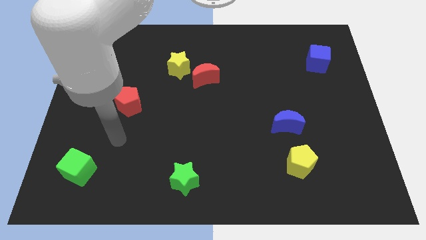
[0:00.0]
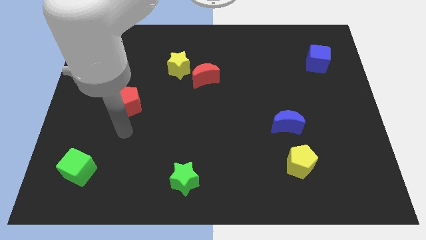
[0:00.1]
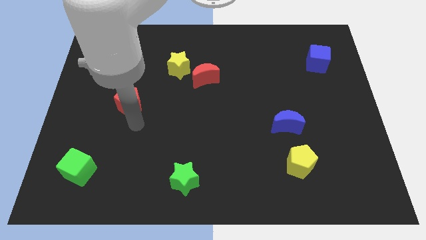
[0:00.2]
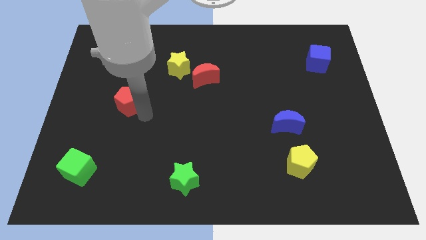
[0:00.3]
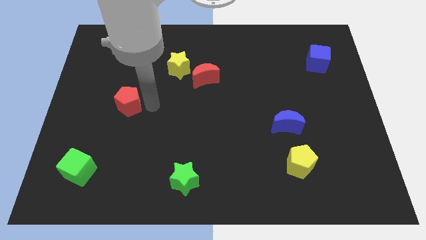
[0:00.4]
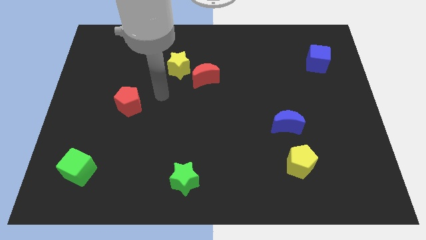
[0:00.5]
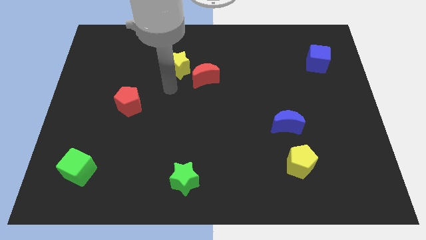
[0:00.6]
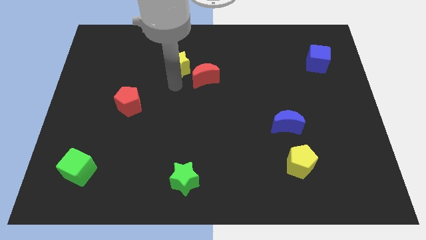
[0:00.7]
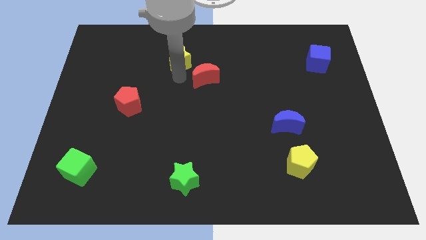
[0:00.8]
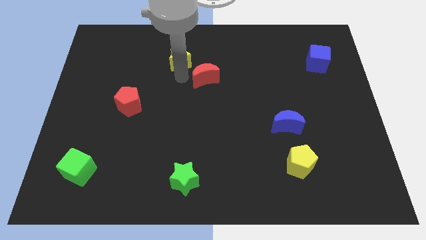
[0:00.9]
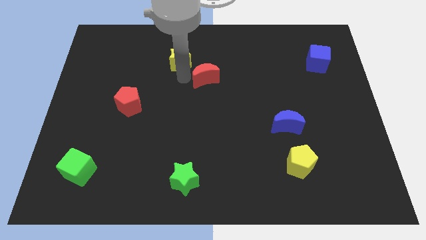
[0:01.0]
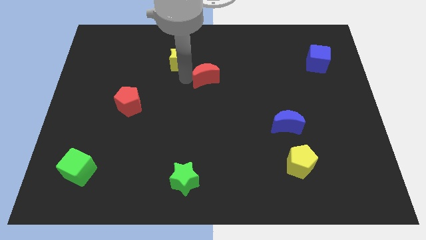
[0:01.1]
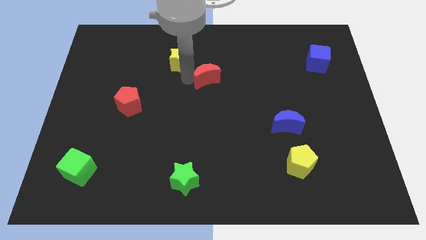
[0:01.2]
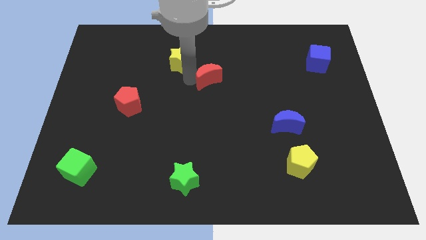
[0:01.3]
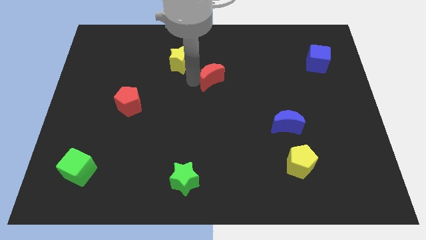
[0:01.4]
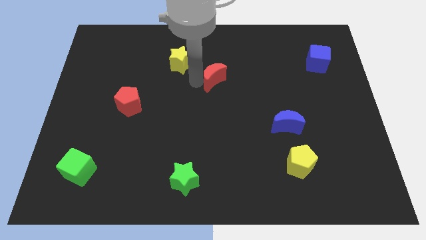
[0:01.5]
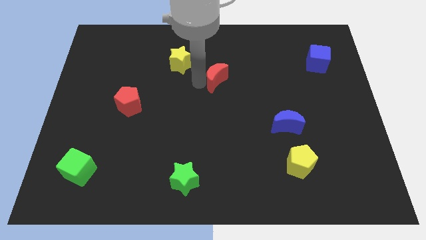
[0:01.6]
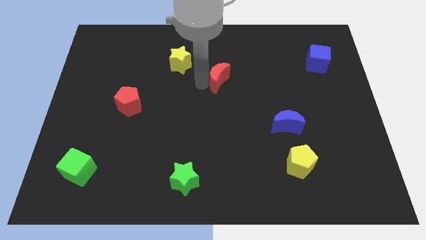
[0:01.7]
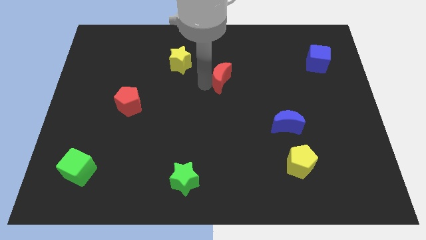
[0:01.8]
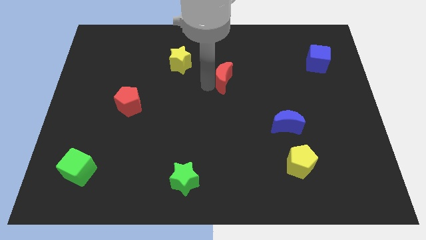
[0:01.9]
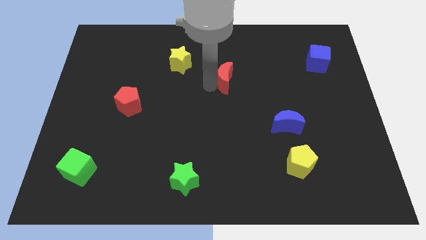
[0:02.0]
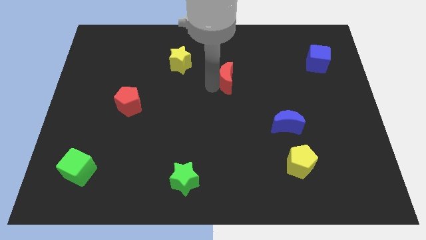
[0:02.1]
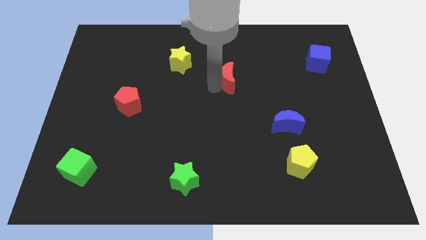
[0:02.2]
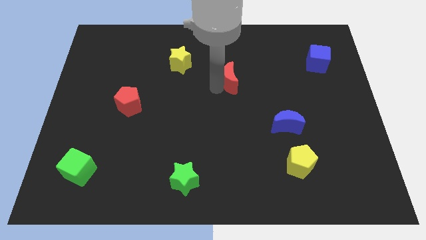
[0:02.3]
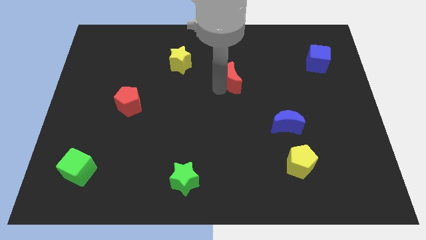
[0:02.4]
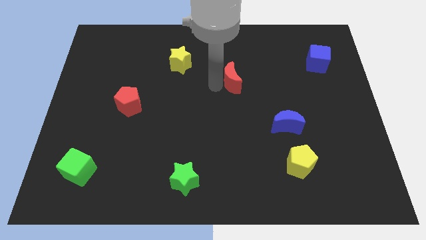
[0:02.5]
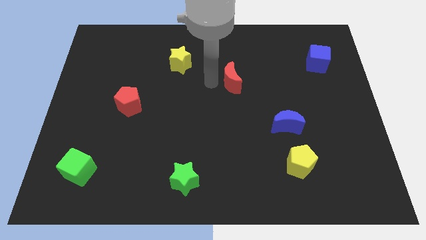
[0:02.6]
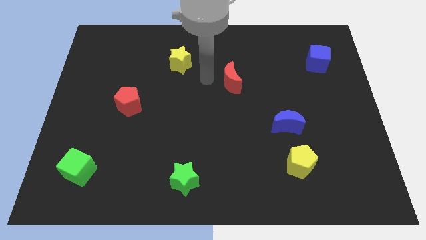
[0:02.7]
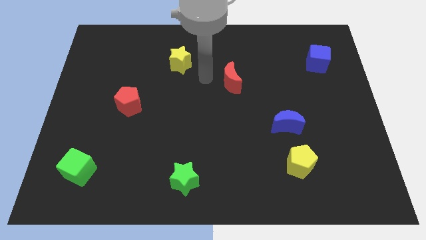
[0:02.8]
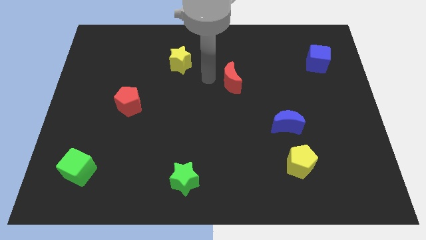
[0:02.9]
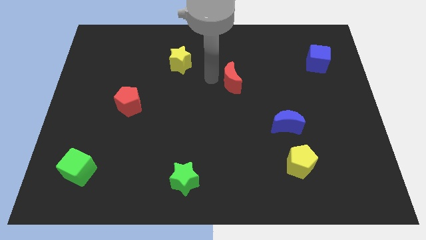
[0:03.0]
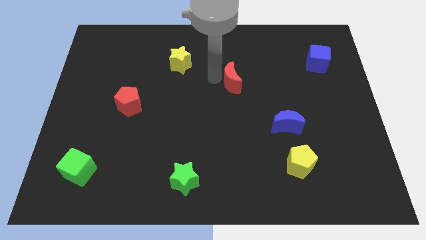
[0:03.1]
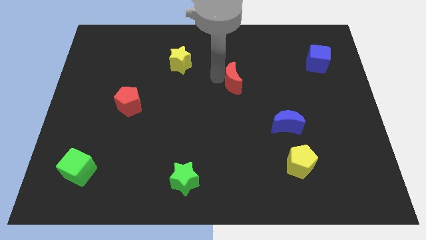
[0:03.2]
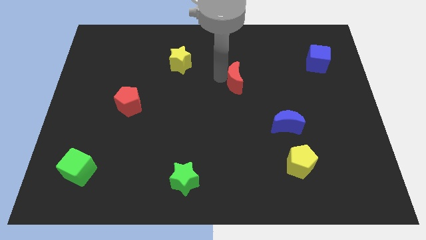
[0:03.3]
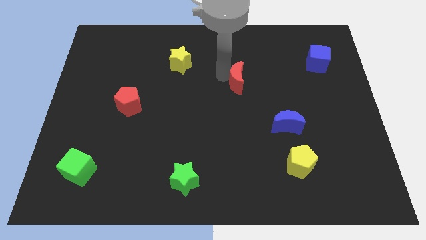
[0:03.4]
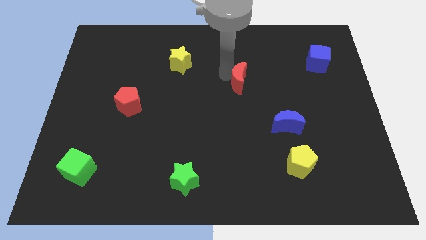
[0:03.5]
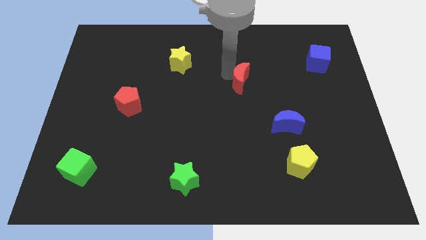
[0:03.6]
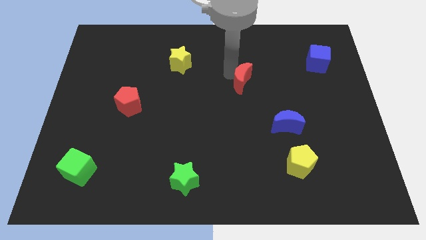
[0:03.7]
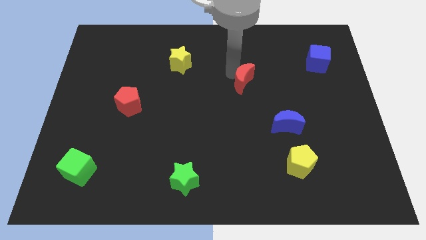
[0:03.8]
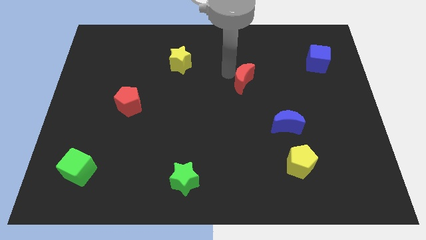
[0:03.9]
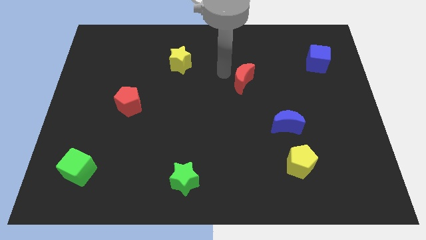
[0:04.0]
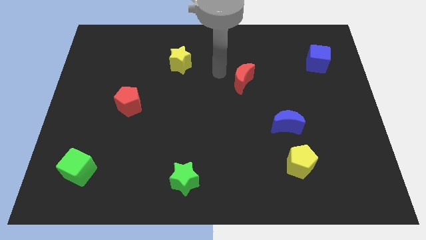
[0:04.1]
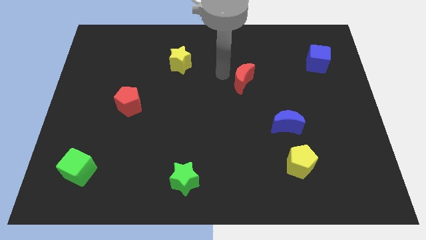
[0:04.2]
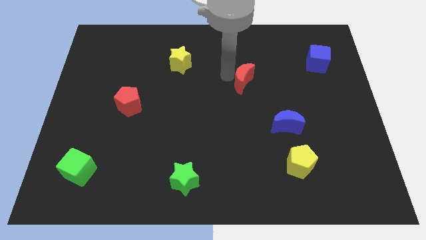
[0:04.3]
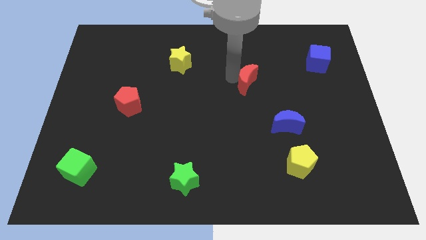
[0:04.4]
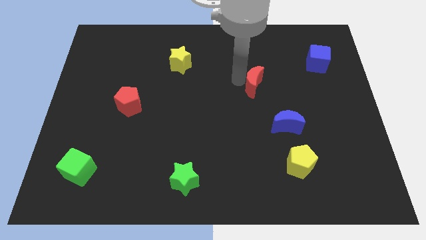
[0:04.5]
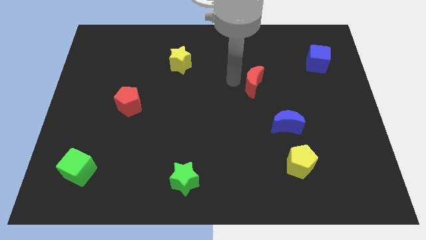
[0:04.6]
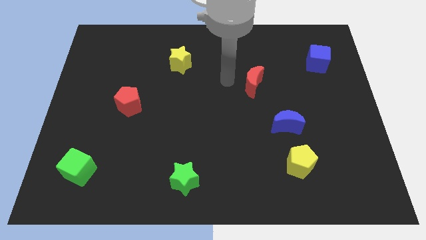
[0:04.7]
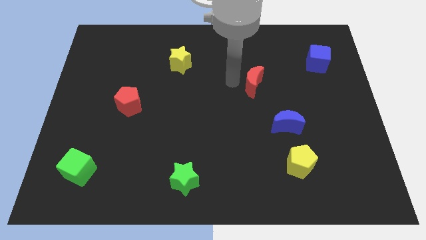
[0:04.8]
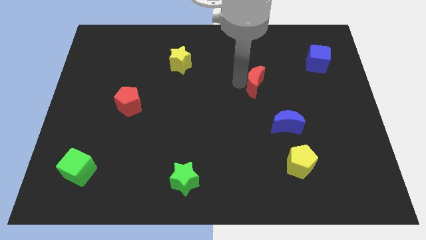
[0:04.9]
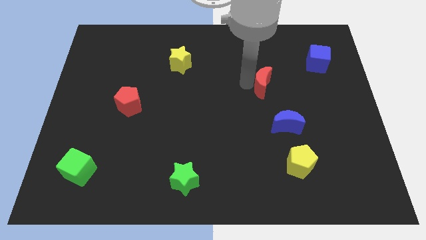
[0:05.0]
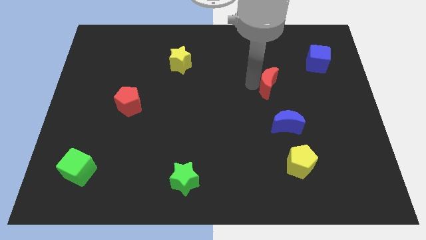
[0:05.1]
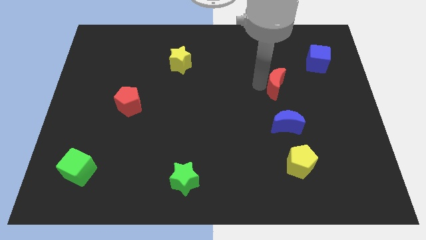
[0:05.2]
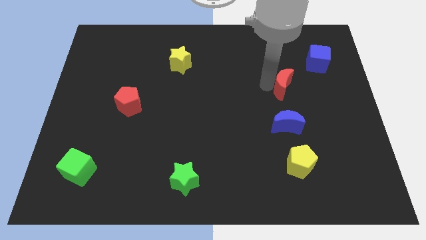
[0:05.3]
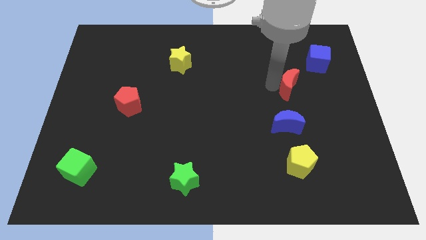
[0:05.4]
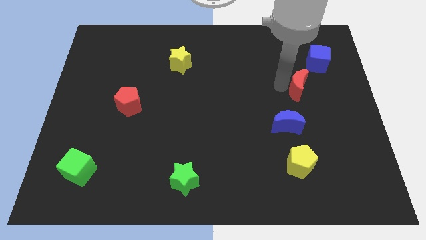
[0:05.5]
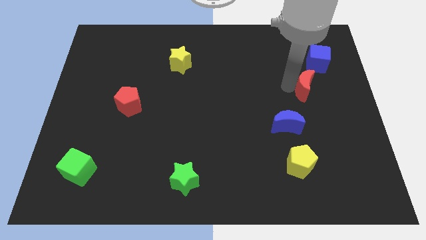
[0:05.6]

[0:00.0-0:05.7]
put the red moon to the bottom side of the blue cube
